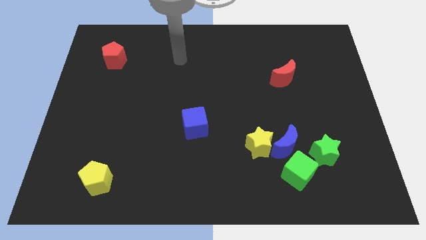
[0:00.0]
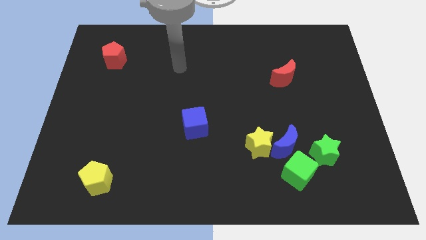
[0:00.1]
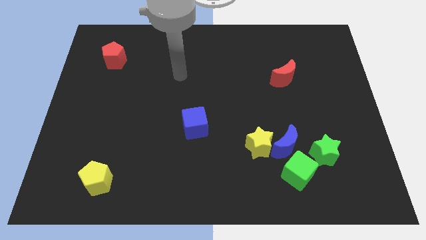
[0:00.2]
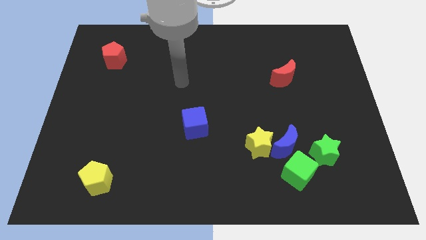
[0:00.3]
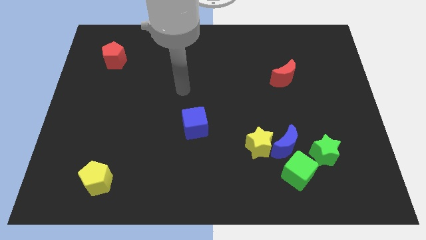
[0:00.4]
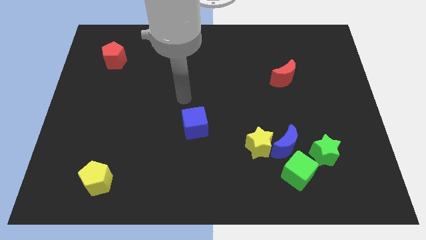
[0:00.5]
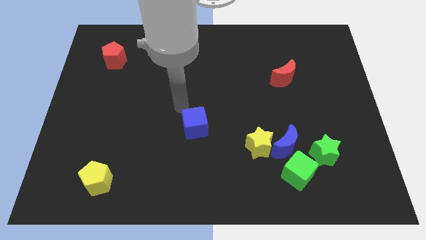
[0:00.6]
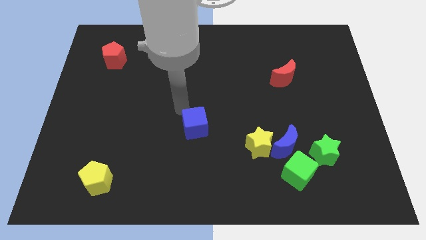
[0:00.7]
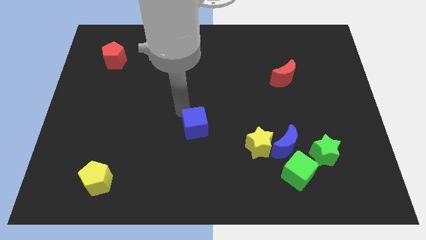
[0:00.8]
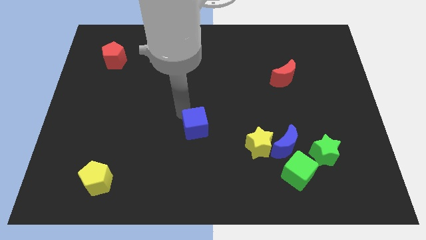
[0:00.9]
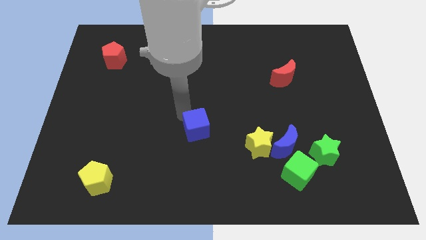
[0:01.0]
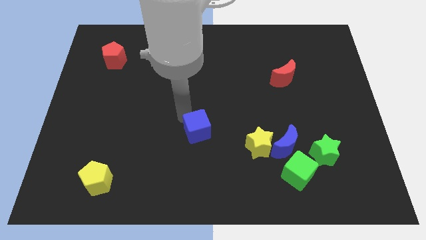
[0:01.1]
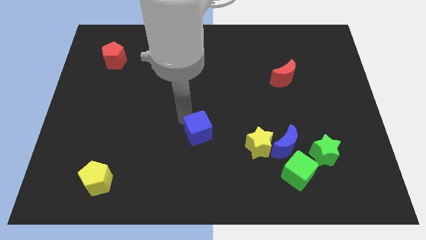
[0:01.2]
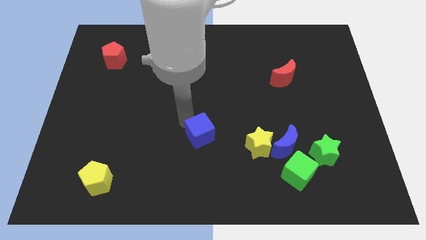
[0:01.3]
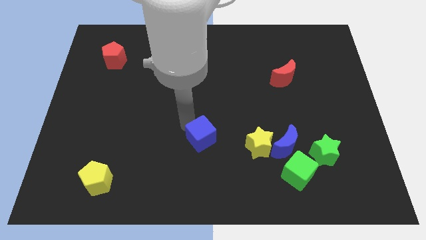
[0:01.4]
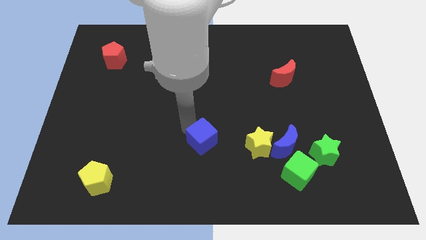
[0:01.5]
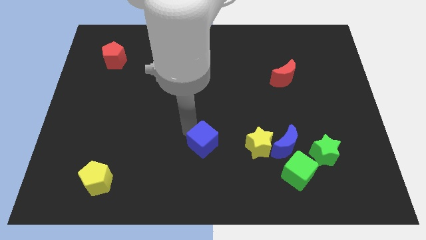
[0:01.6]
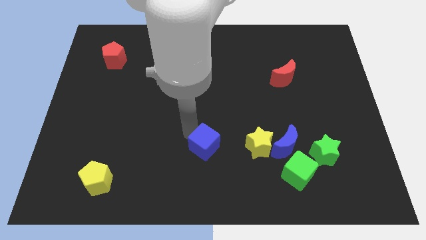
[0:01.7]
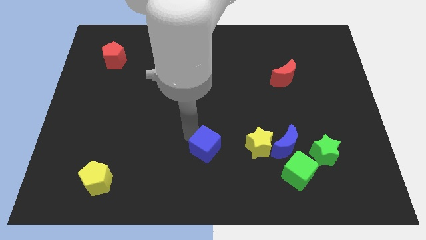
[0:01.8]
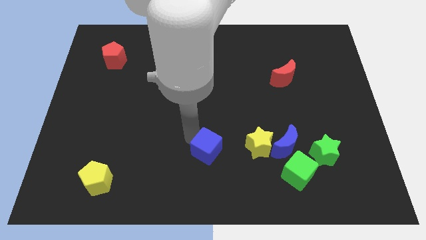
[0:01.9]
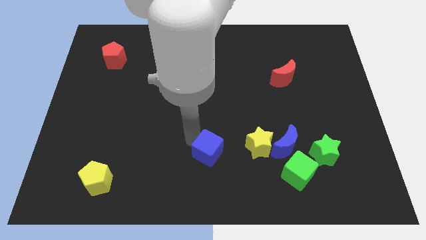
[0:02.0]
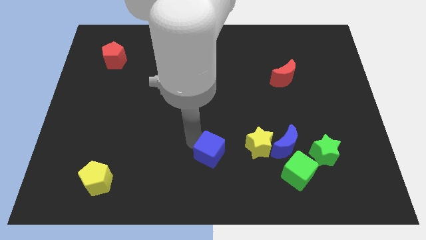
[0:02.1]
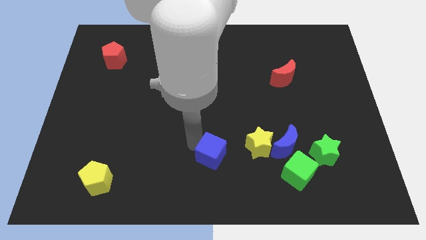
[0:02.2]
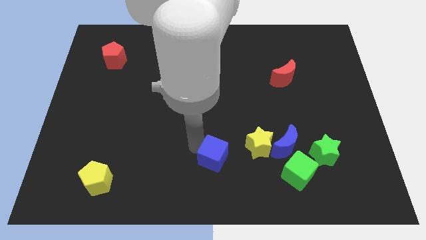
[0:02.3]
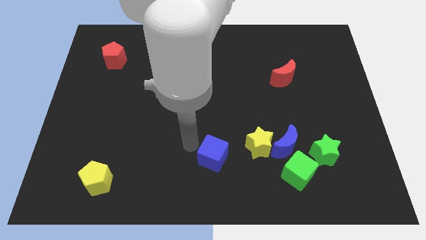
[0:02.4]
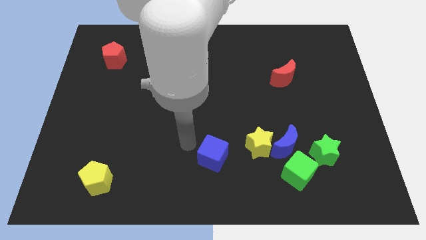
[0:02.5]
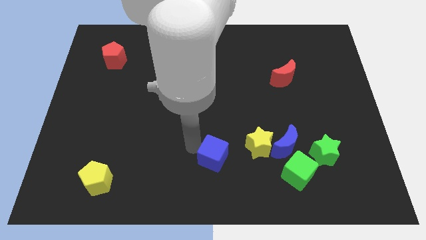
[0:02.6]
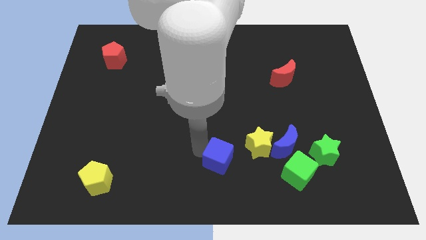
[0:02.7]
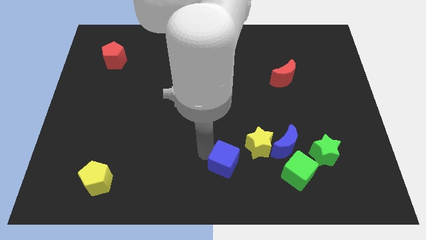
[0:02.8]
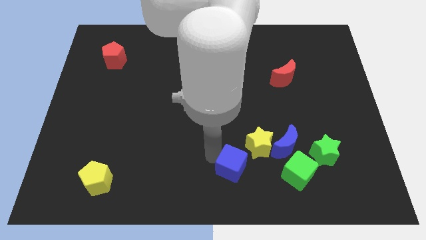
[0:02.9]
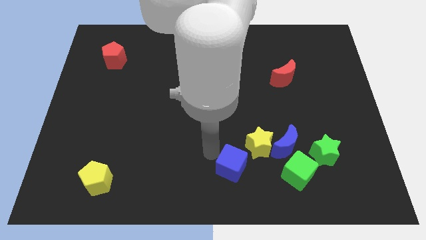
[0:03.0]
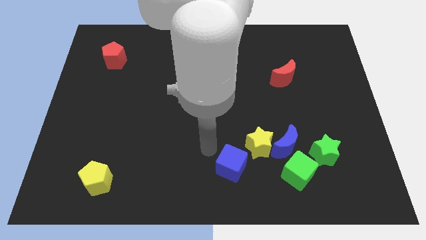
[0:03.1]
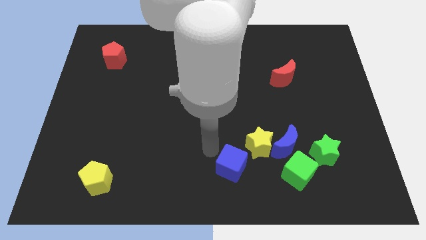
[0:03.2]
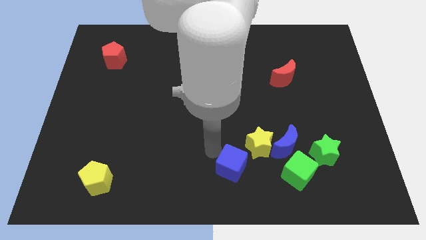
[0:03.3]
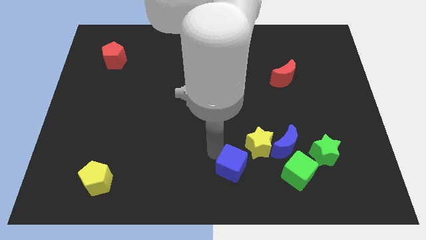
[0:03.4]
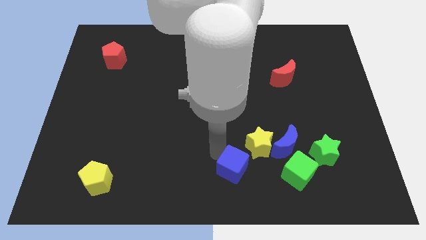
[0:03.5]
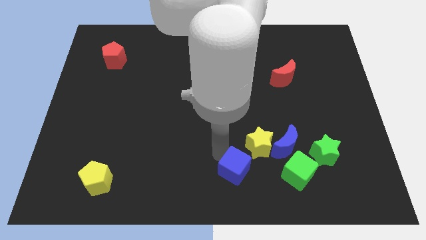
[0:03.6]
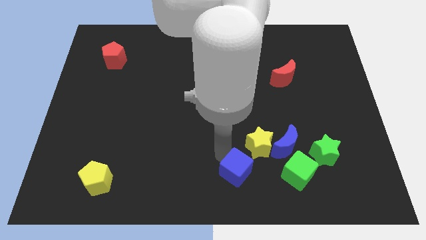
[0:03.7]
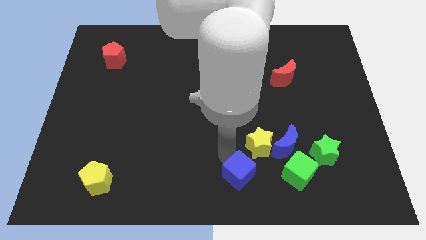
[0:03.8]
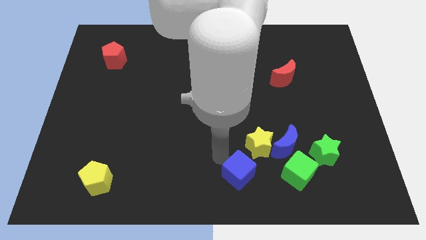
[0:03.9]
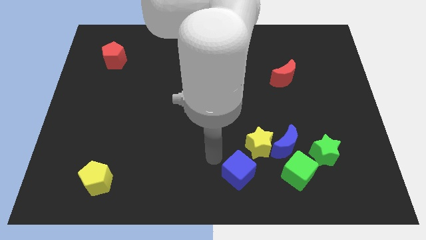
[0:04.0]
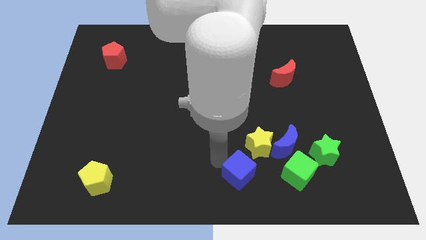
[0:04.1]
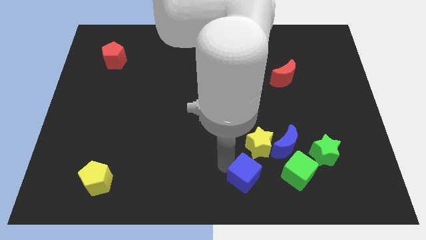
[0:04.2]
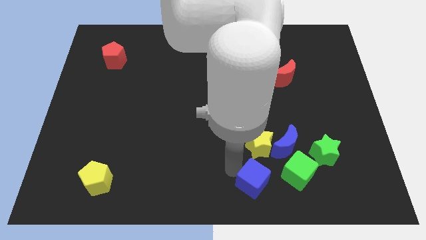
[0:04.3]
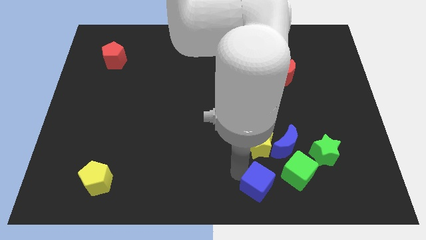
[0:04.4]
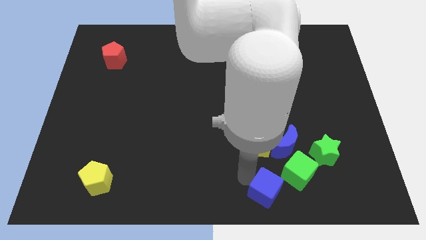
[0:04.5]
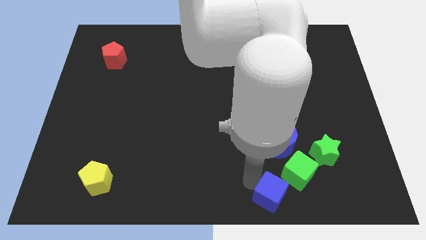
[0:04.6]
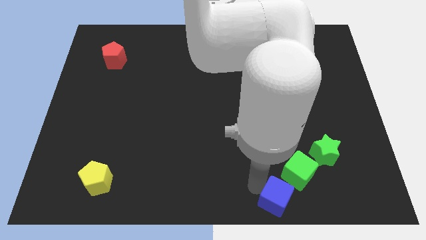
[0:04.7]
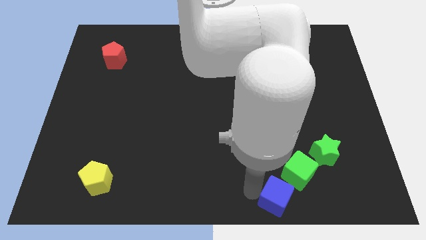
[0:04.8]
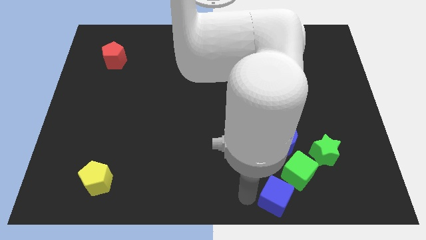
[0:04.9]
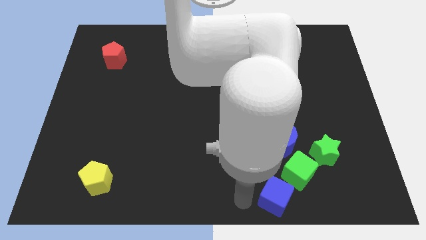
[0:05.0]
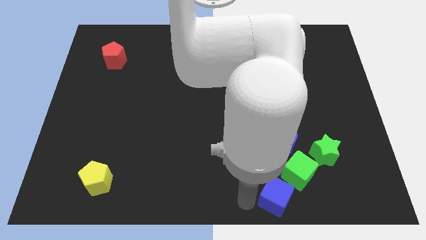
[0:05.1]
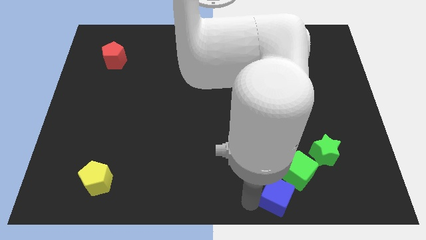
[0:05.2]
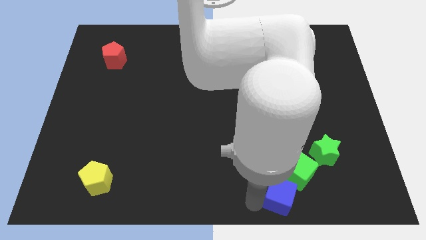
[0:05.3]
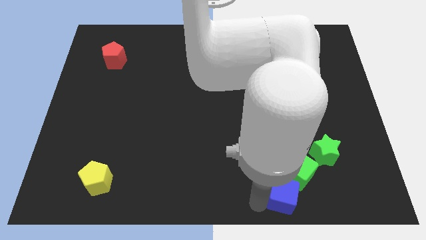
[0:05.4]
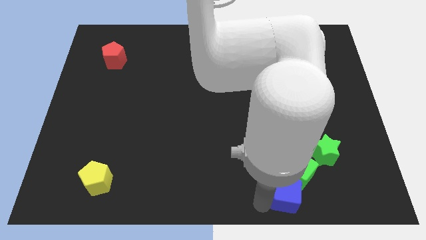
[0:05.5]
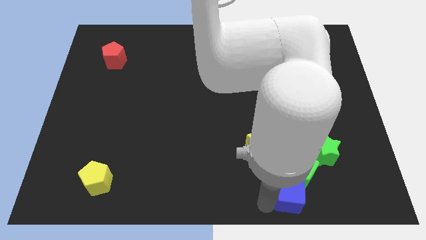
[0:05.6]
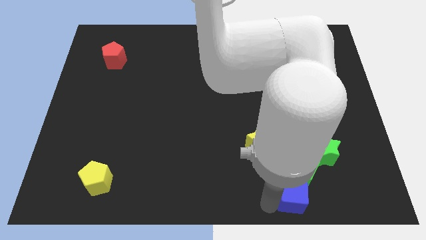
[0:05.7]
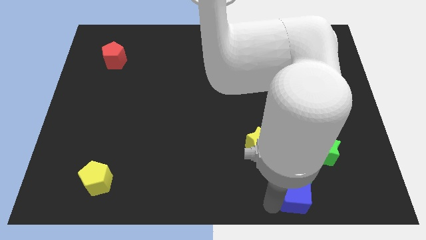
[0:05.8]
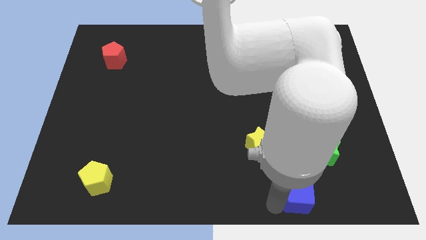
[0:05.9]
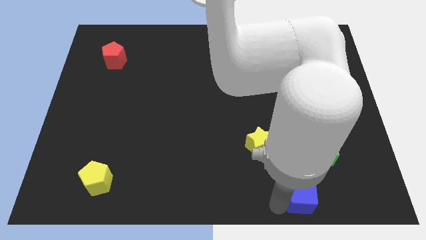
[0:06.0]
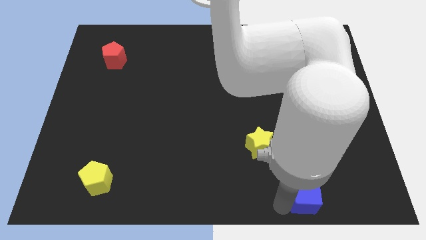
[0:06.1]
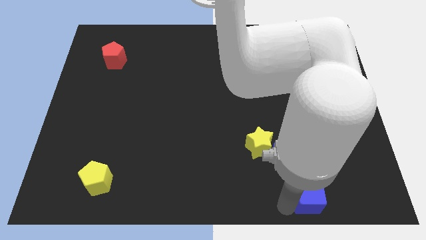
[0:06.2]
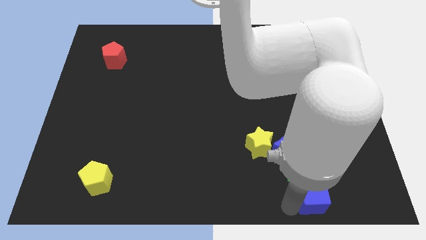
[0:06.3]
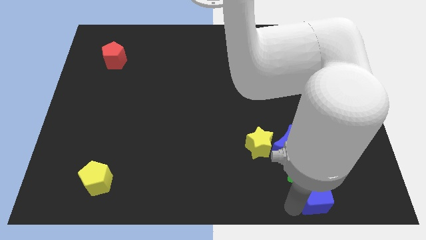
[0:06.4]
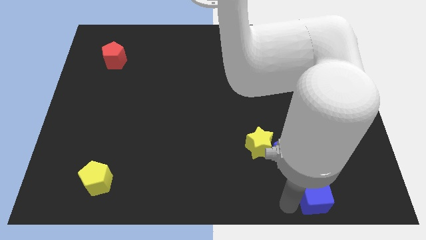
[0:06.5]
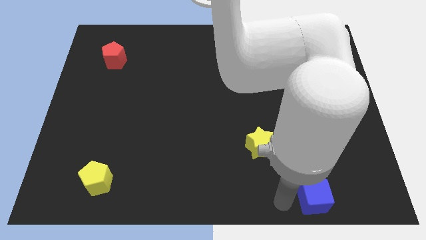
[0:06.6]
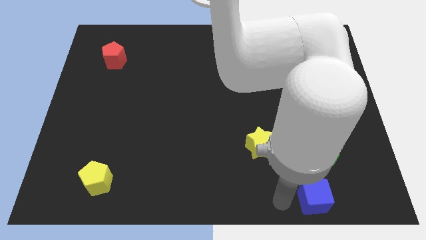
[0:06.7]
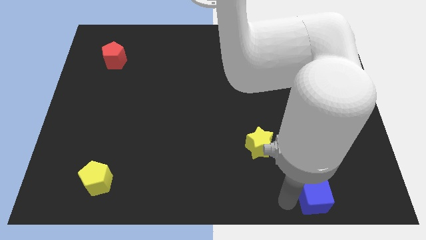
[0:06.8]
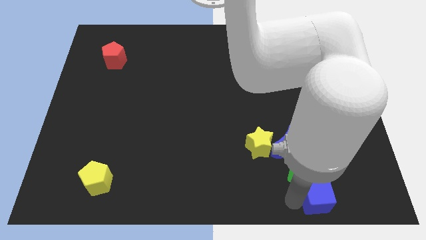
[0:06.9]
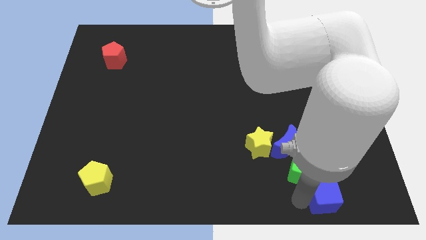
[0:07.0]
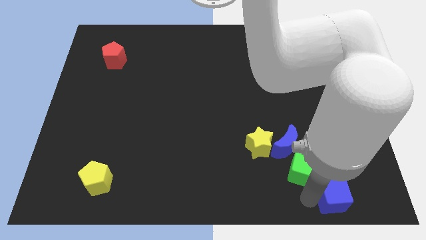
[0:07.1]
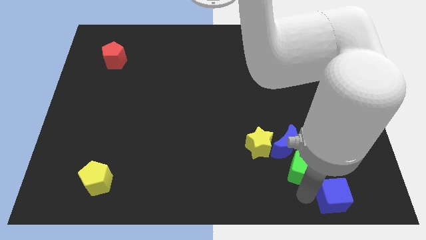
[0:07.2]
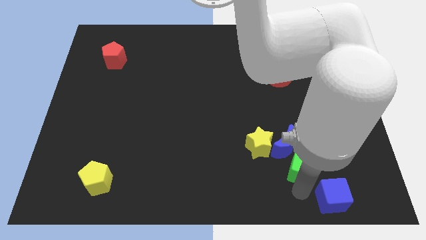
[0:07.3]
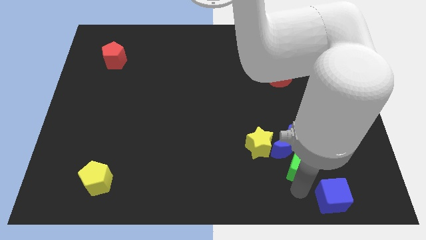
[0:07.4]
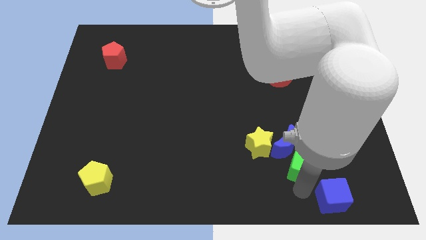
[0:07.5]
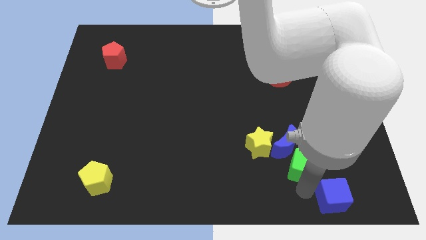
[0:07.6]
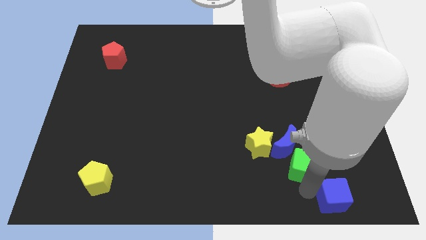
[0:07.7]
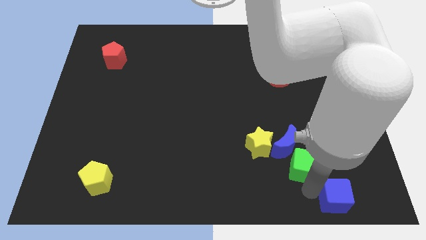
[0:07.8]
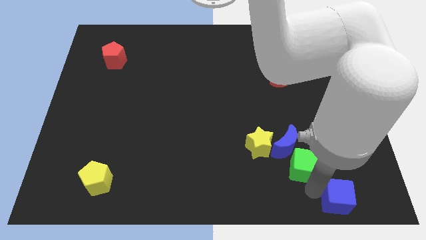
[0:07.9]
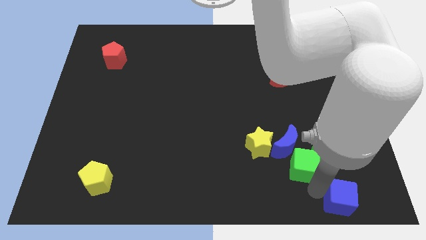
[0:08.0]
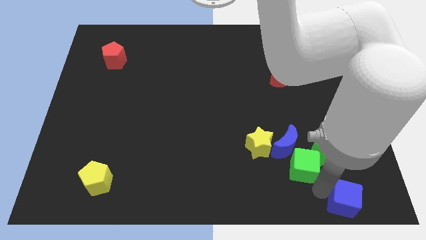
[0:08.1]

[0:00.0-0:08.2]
slide the blue cube to the lower right corner
